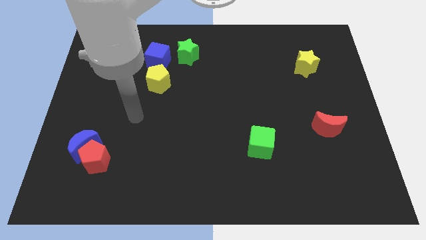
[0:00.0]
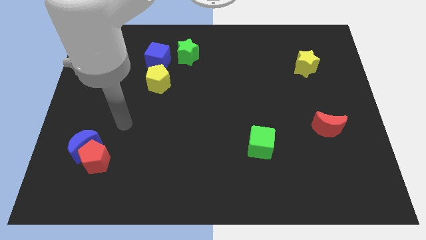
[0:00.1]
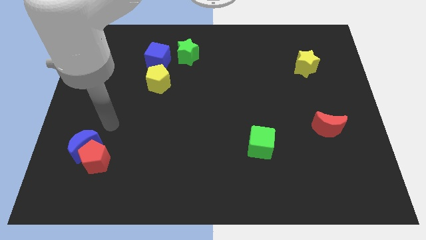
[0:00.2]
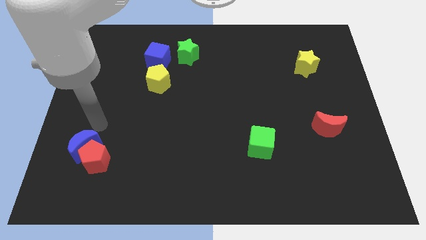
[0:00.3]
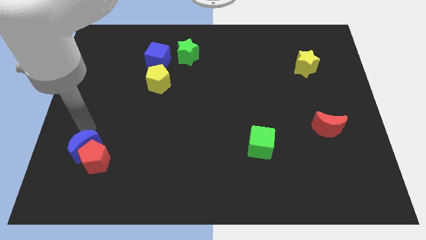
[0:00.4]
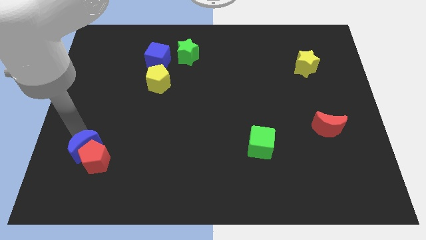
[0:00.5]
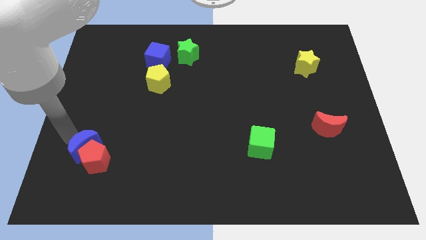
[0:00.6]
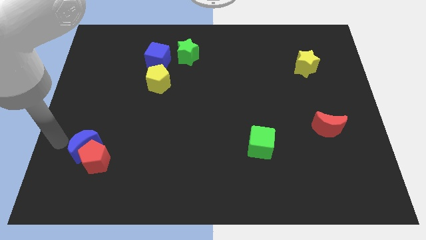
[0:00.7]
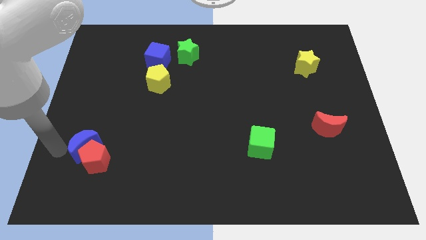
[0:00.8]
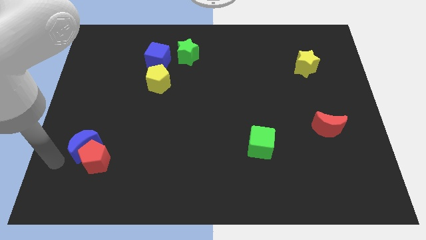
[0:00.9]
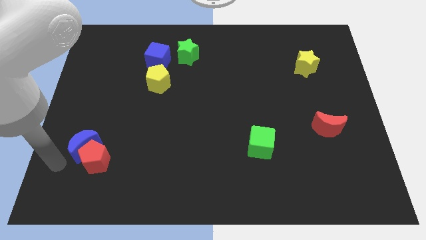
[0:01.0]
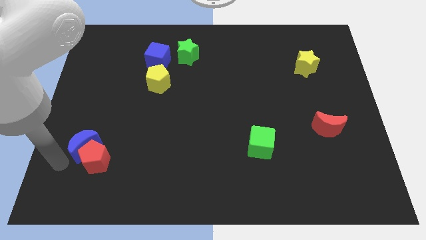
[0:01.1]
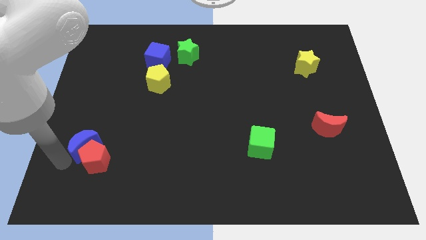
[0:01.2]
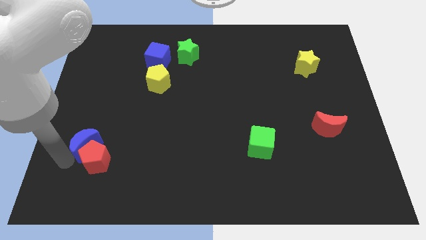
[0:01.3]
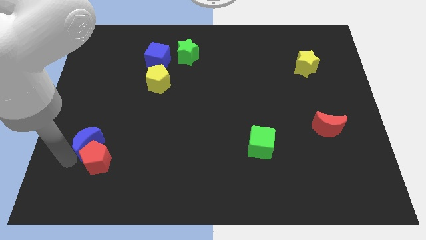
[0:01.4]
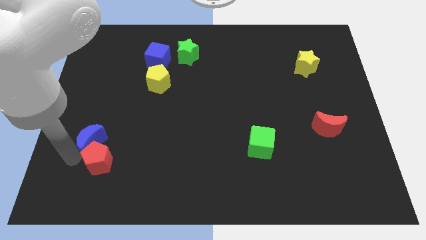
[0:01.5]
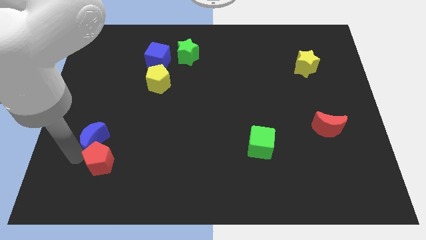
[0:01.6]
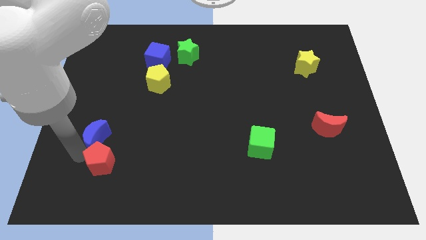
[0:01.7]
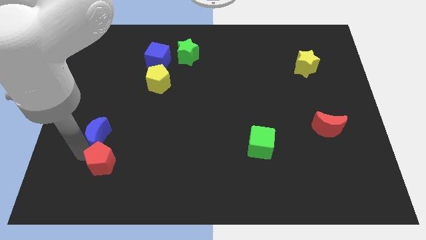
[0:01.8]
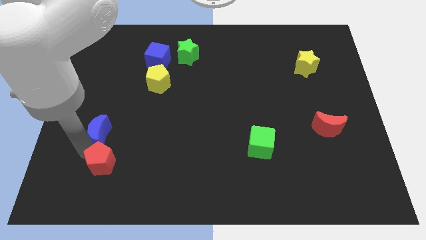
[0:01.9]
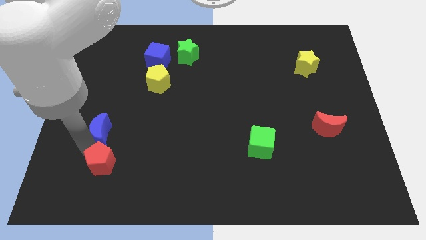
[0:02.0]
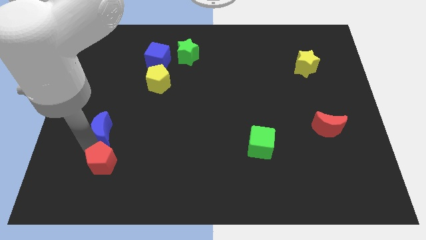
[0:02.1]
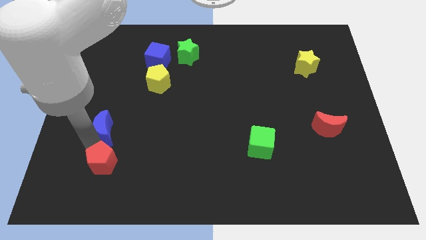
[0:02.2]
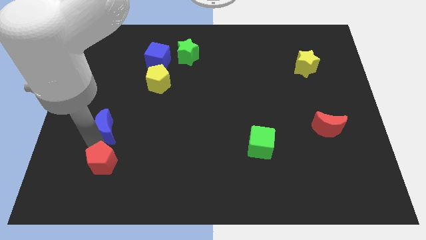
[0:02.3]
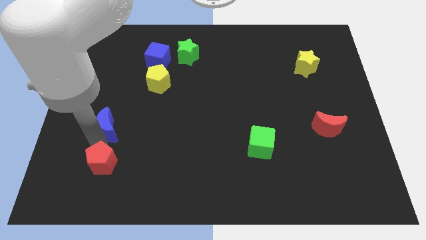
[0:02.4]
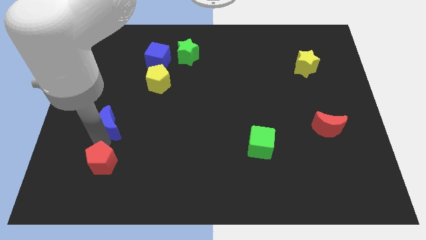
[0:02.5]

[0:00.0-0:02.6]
slide the blue moon upwards and right somewhat

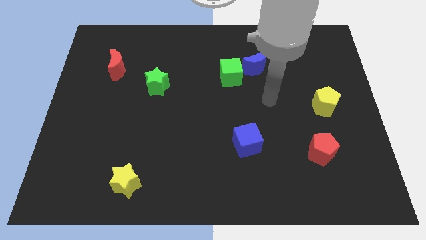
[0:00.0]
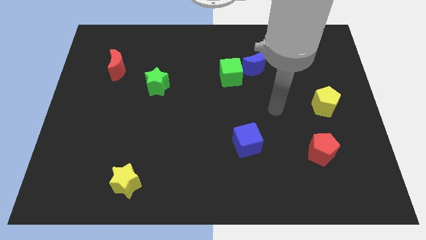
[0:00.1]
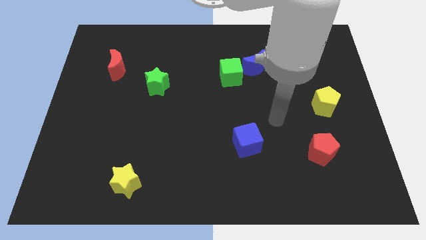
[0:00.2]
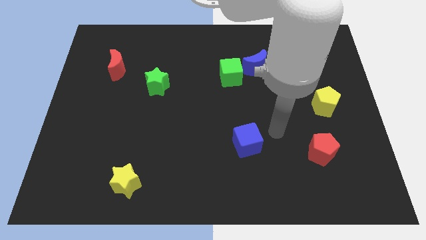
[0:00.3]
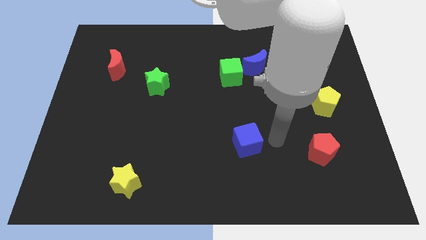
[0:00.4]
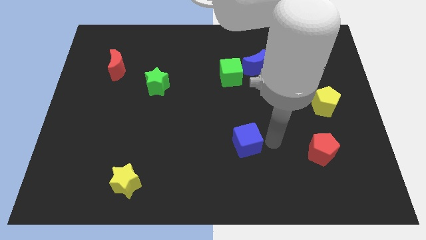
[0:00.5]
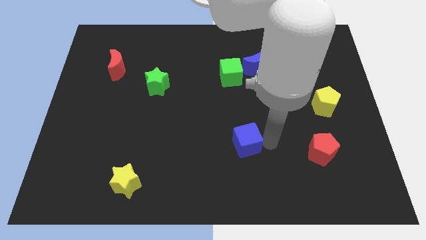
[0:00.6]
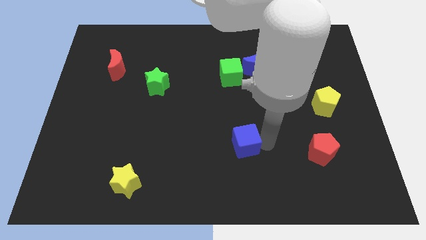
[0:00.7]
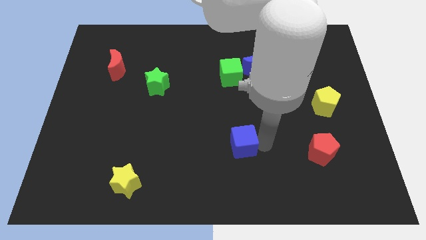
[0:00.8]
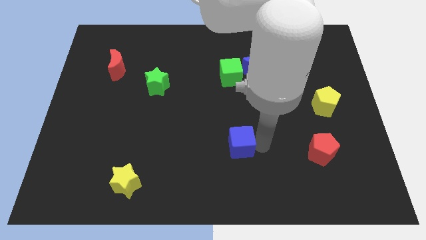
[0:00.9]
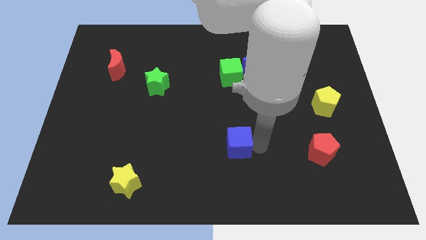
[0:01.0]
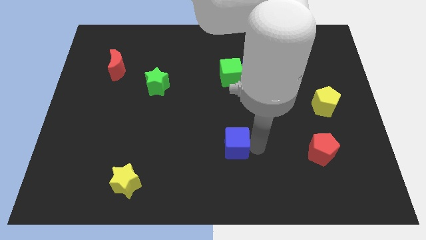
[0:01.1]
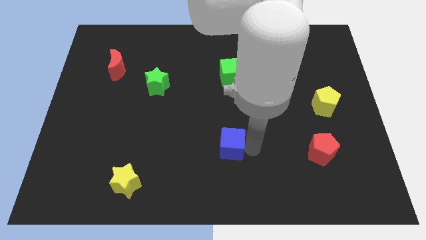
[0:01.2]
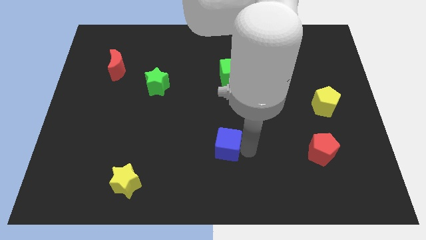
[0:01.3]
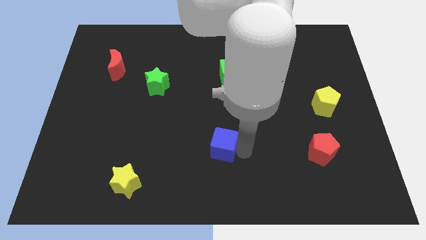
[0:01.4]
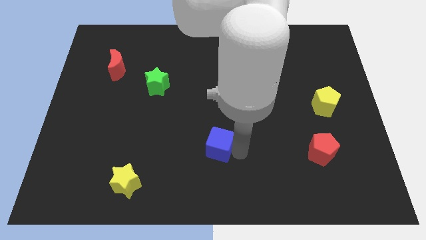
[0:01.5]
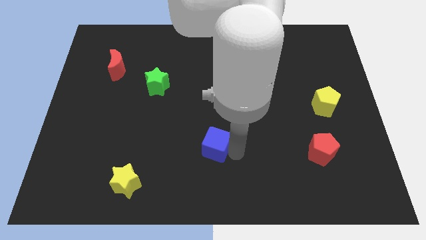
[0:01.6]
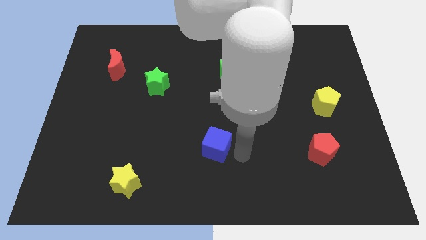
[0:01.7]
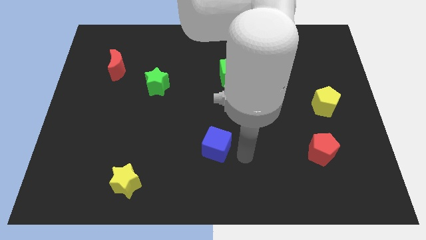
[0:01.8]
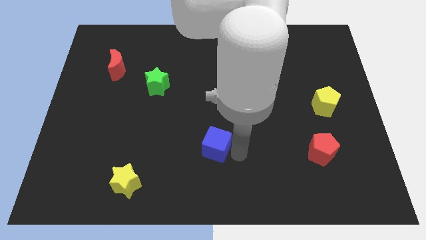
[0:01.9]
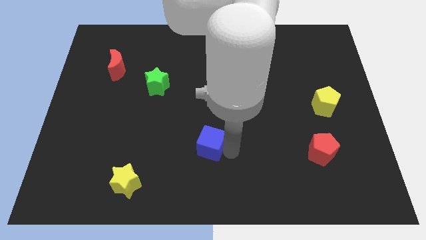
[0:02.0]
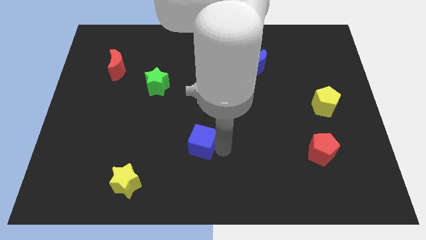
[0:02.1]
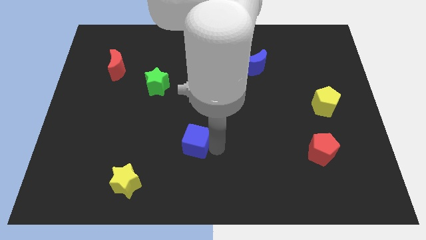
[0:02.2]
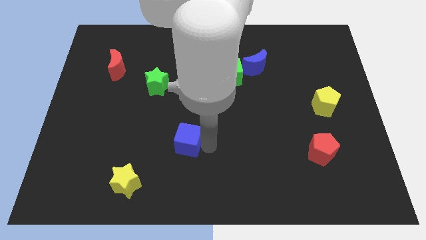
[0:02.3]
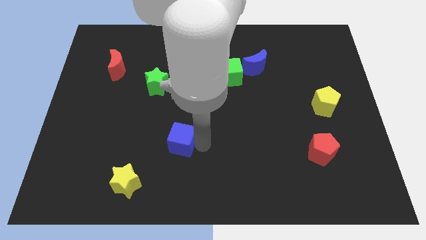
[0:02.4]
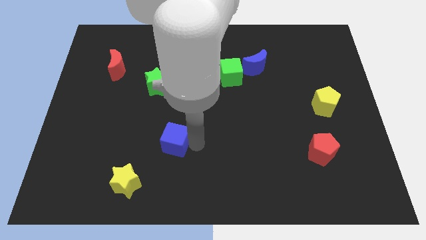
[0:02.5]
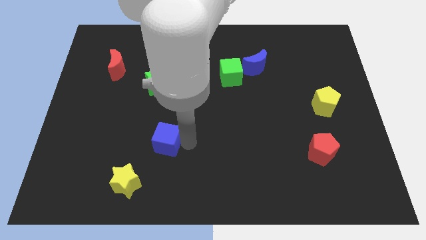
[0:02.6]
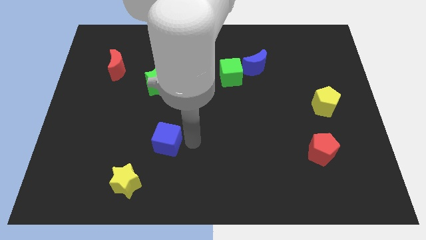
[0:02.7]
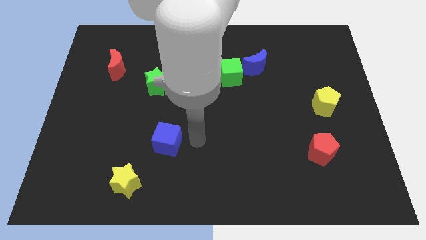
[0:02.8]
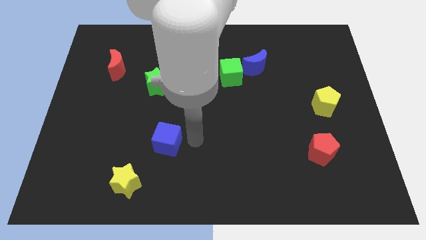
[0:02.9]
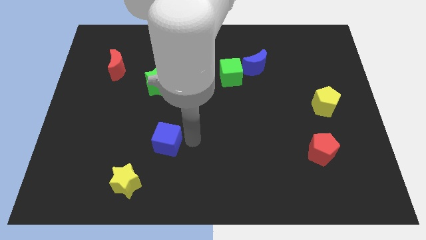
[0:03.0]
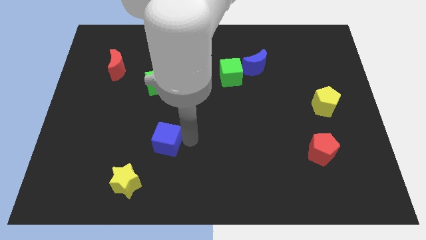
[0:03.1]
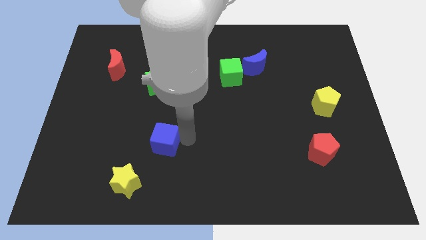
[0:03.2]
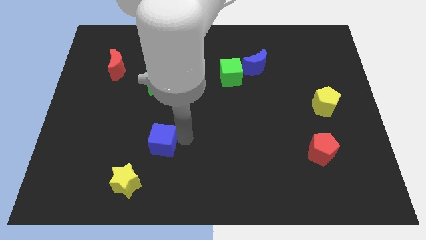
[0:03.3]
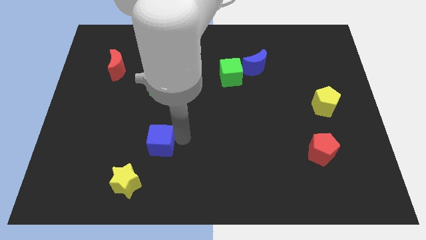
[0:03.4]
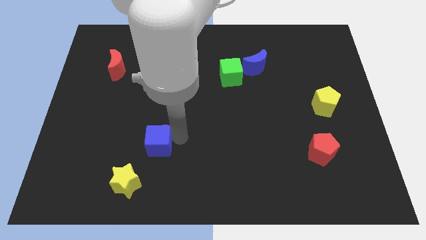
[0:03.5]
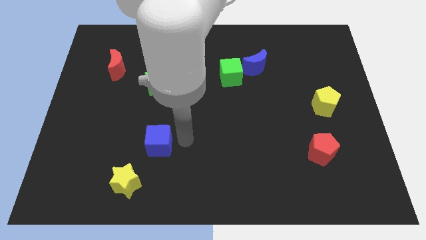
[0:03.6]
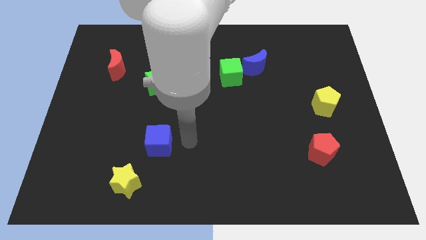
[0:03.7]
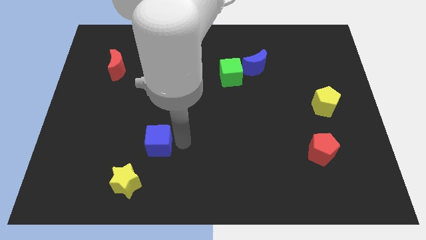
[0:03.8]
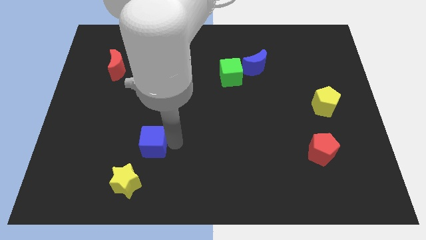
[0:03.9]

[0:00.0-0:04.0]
push the blue cube to the left

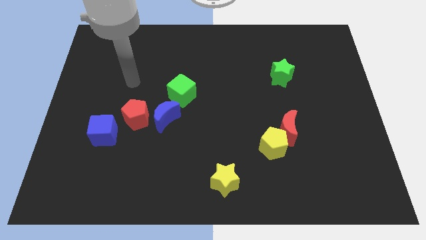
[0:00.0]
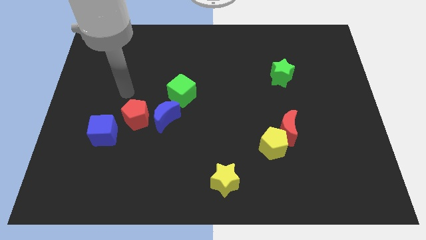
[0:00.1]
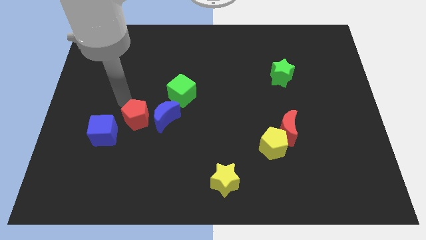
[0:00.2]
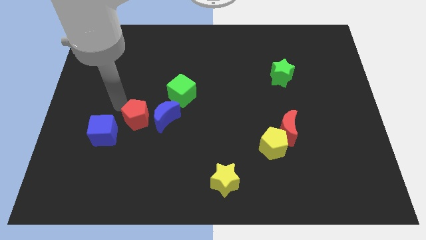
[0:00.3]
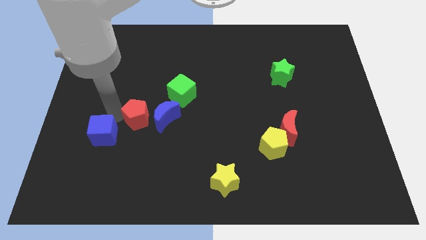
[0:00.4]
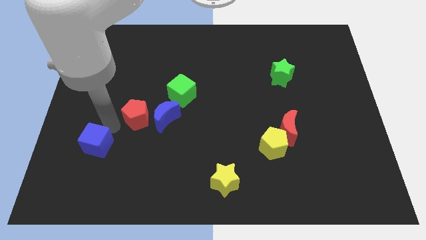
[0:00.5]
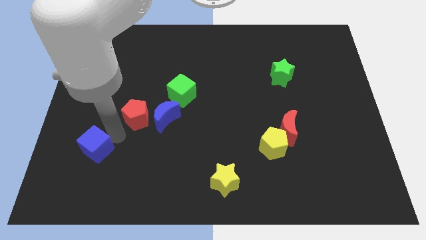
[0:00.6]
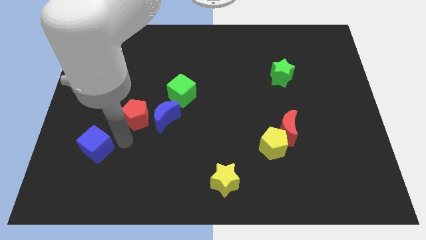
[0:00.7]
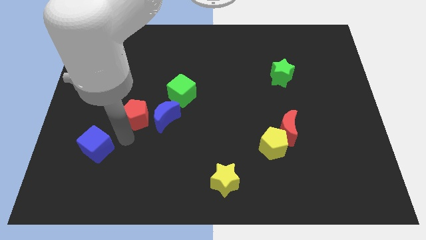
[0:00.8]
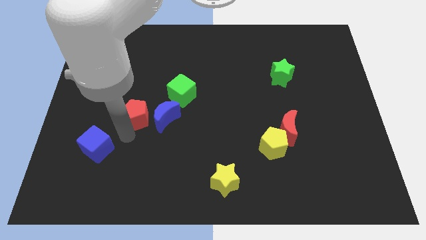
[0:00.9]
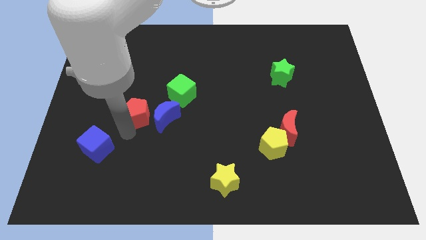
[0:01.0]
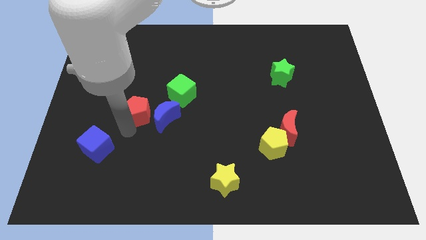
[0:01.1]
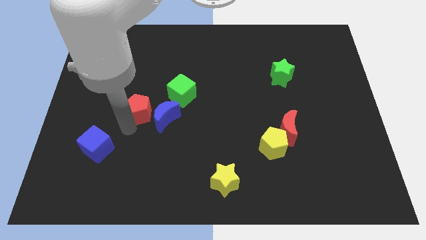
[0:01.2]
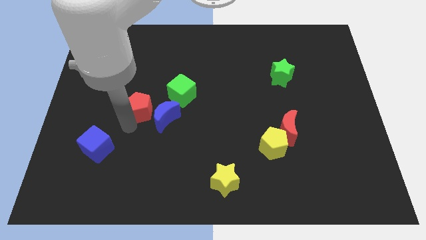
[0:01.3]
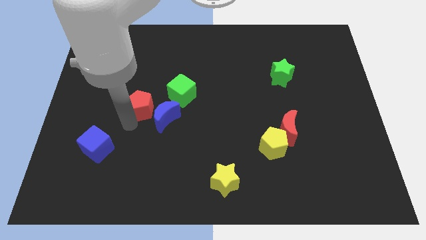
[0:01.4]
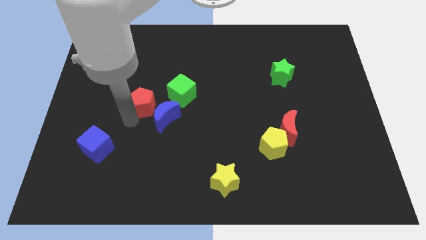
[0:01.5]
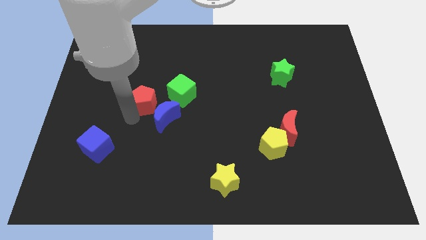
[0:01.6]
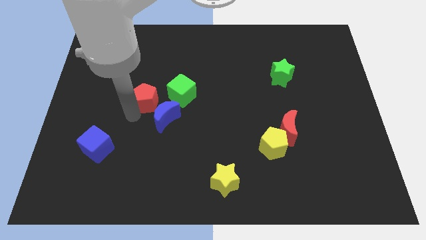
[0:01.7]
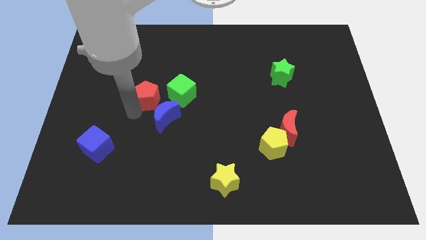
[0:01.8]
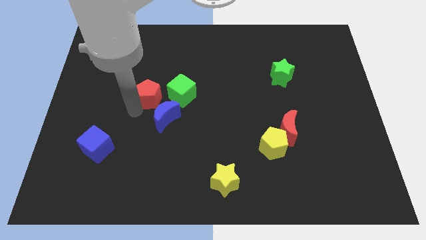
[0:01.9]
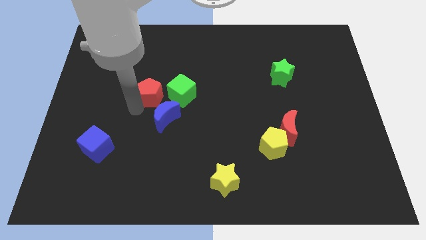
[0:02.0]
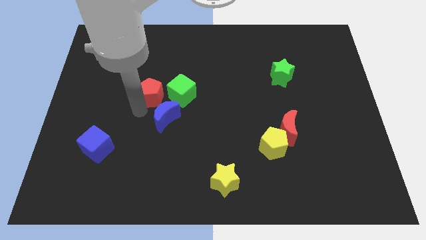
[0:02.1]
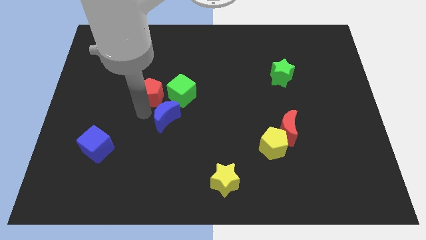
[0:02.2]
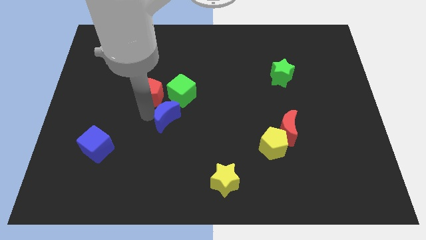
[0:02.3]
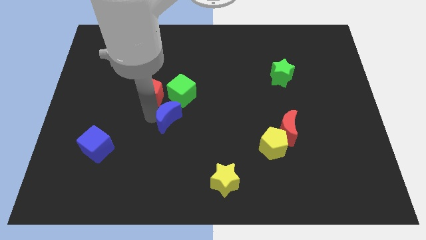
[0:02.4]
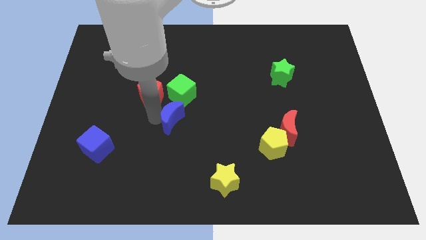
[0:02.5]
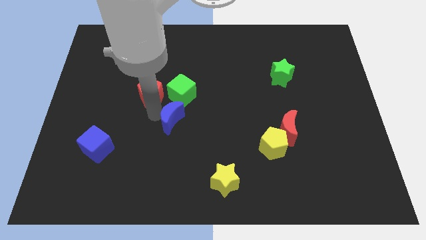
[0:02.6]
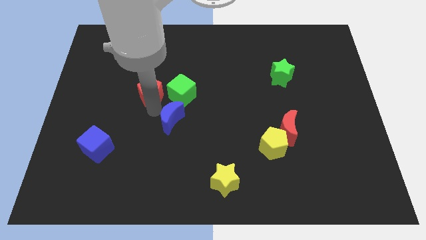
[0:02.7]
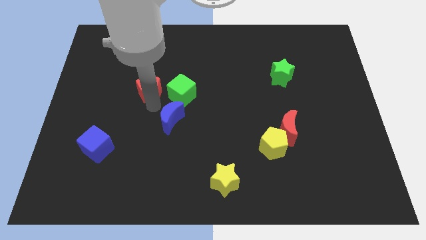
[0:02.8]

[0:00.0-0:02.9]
slide the red pentagon upwards slightly
